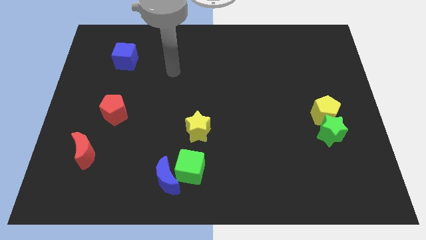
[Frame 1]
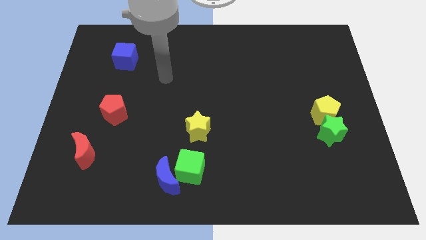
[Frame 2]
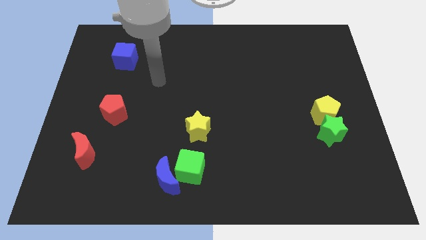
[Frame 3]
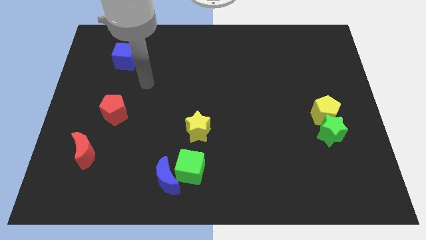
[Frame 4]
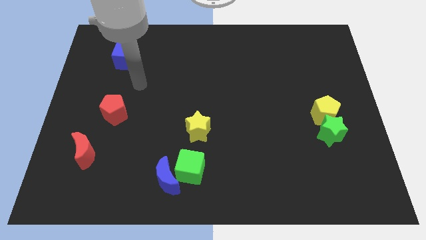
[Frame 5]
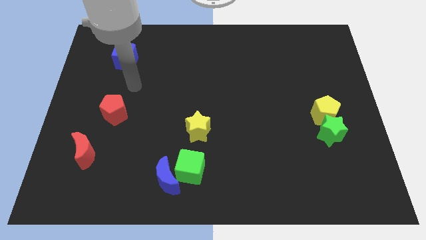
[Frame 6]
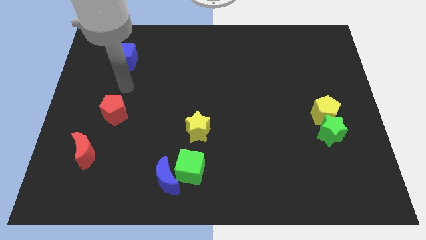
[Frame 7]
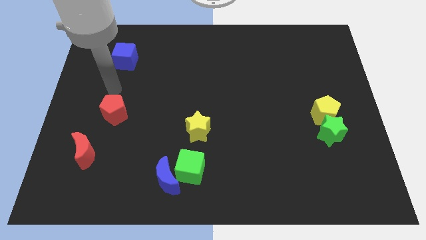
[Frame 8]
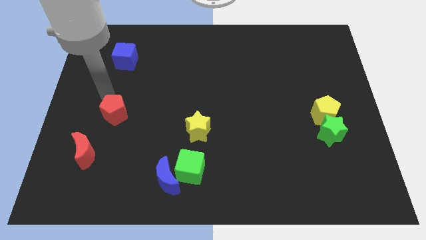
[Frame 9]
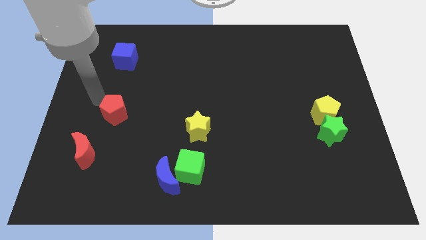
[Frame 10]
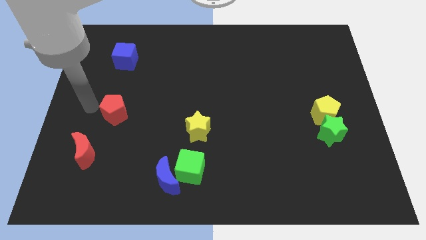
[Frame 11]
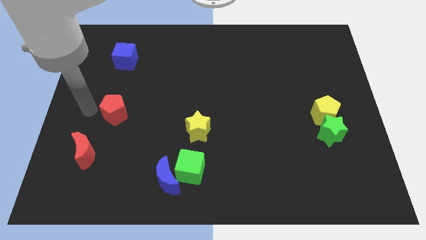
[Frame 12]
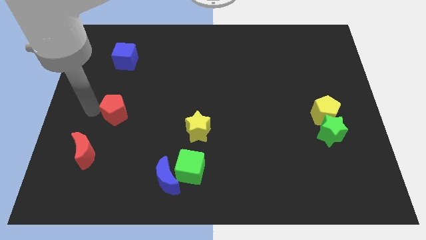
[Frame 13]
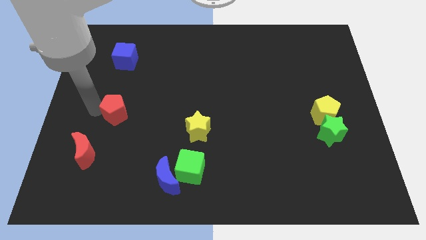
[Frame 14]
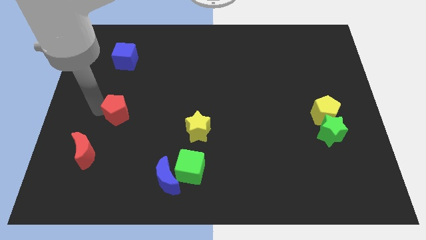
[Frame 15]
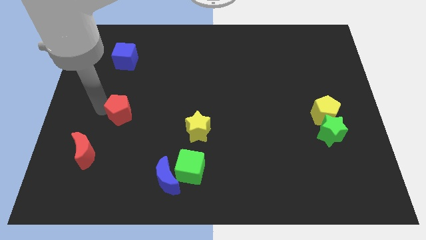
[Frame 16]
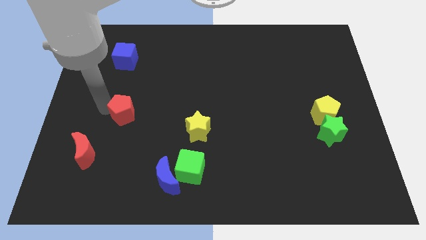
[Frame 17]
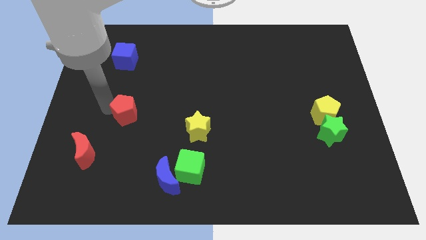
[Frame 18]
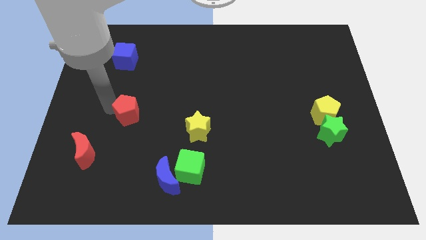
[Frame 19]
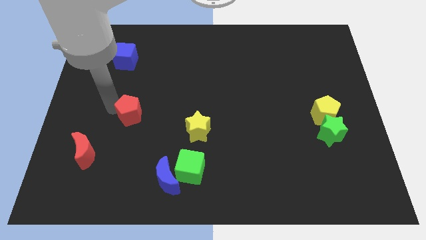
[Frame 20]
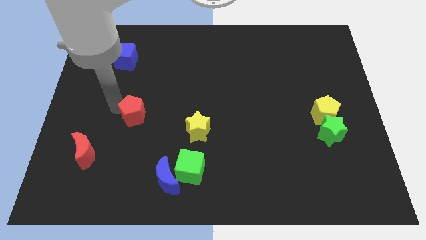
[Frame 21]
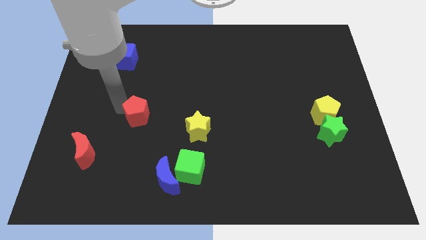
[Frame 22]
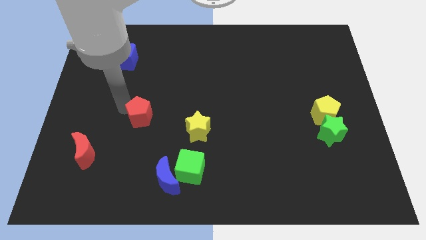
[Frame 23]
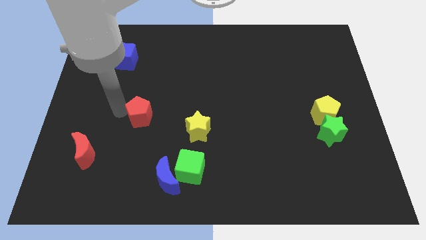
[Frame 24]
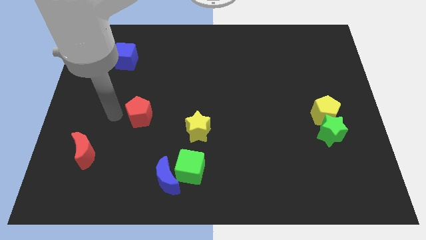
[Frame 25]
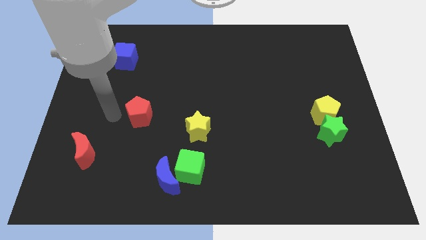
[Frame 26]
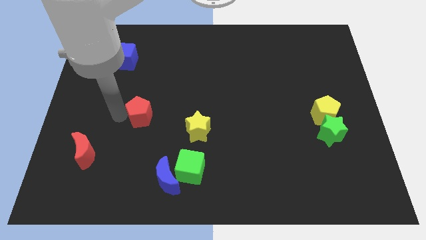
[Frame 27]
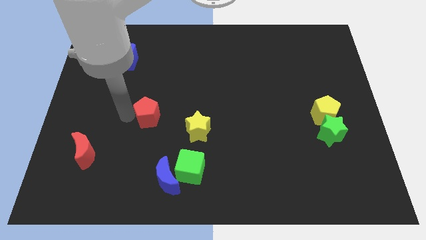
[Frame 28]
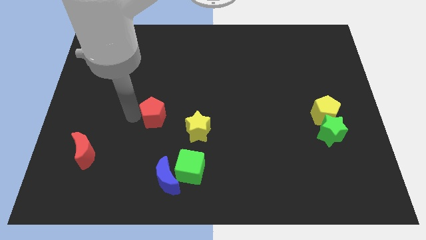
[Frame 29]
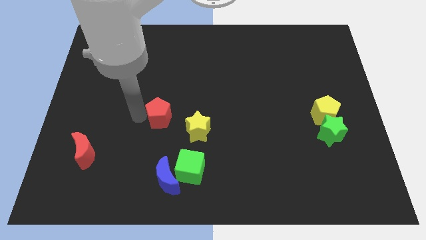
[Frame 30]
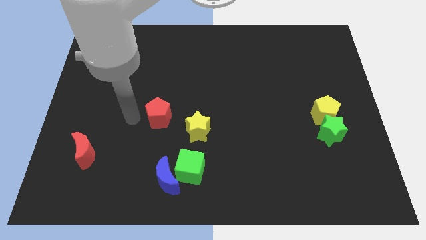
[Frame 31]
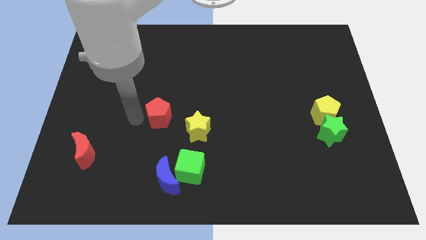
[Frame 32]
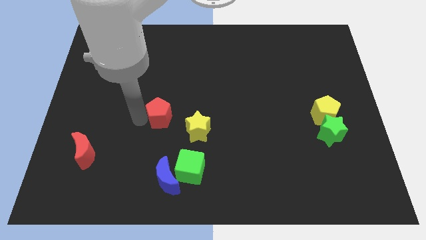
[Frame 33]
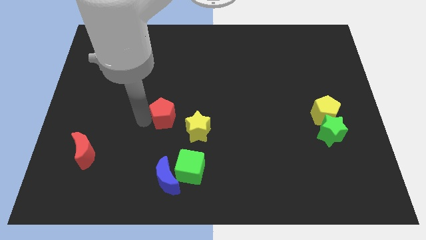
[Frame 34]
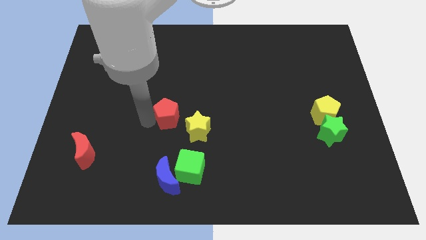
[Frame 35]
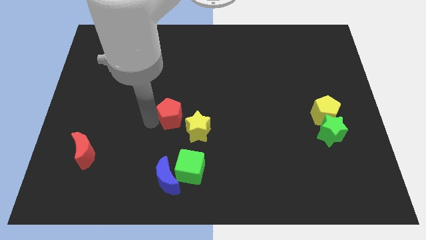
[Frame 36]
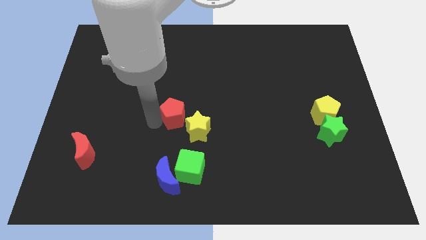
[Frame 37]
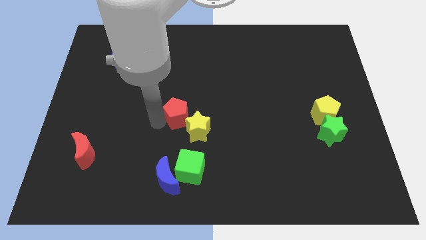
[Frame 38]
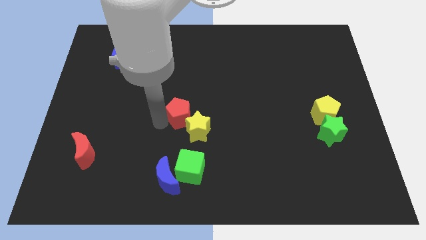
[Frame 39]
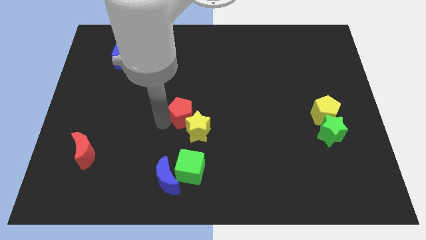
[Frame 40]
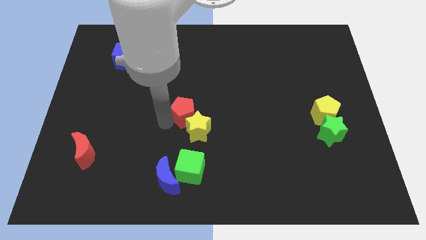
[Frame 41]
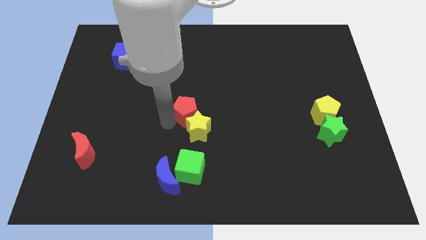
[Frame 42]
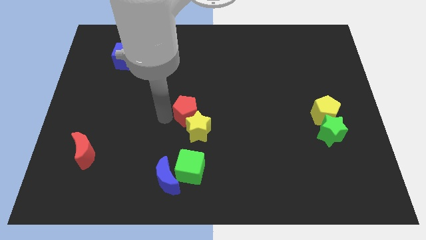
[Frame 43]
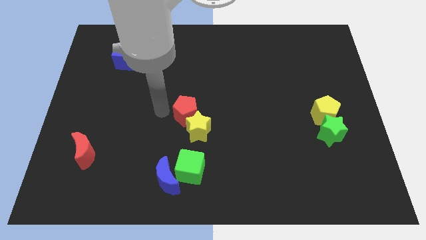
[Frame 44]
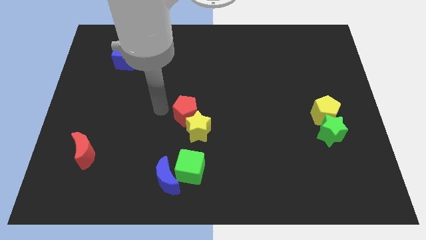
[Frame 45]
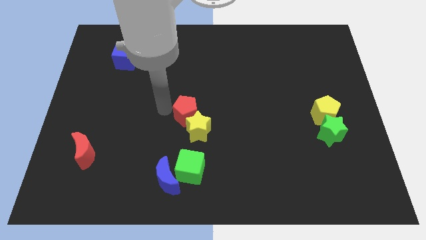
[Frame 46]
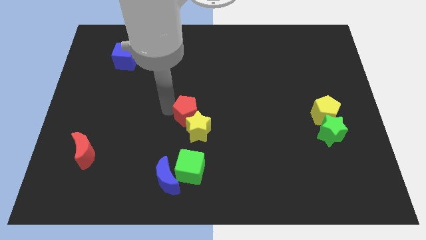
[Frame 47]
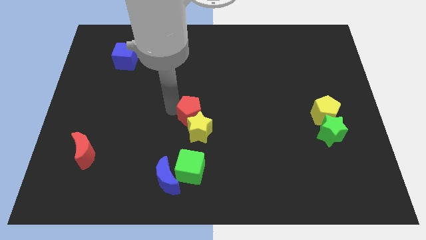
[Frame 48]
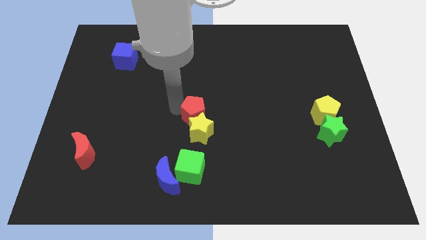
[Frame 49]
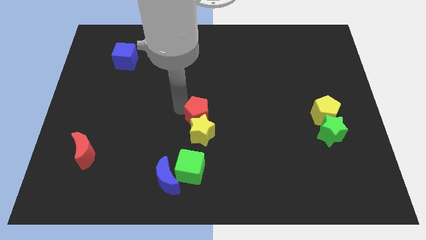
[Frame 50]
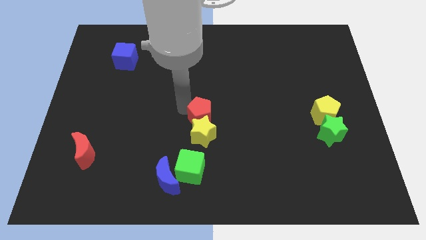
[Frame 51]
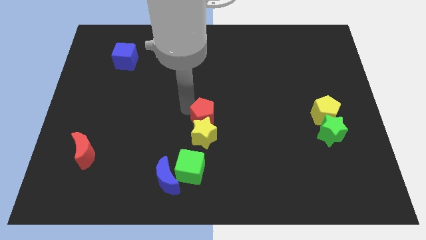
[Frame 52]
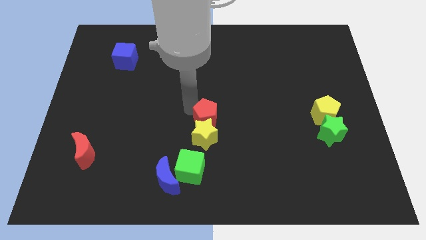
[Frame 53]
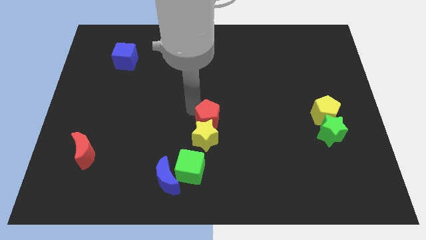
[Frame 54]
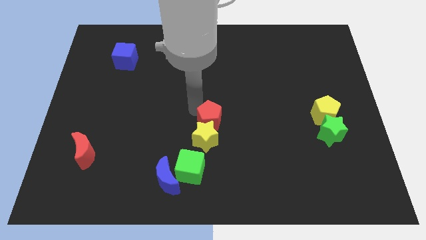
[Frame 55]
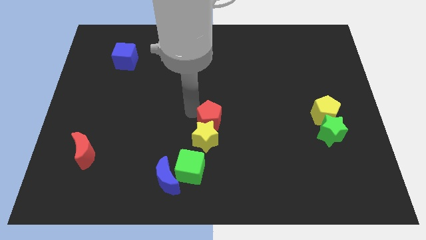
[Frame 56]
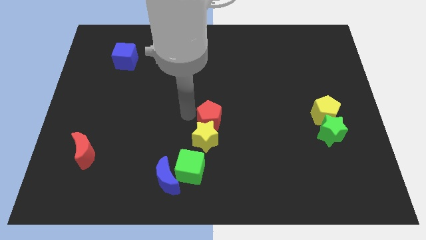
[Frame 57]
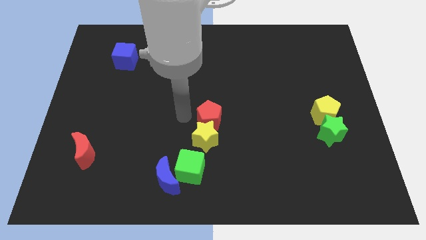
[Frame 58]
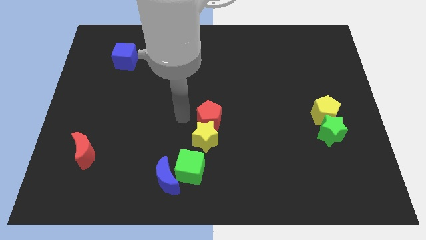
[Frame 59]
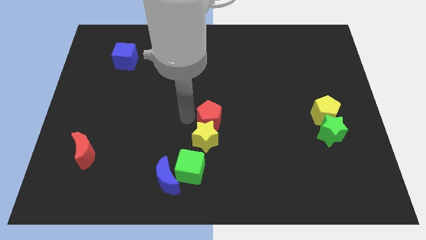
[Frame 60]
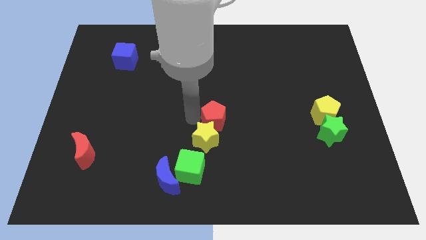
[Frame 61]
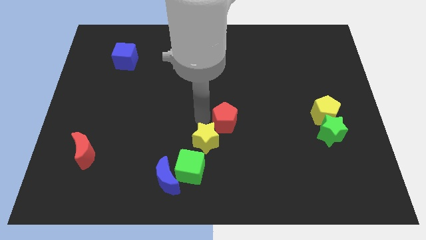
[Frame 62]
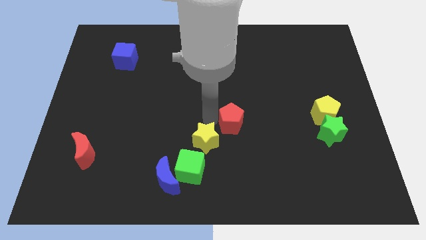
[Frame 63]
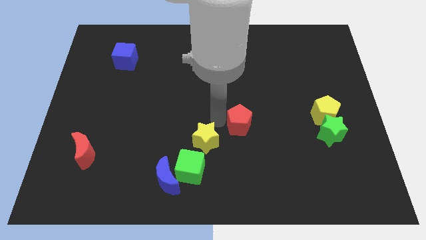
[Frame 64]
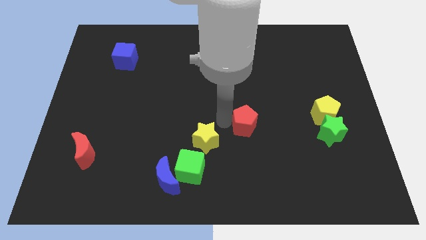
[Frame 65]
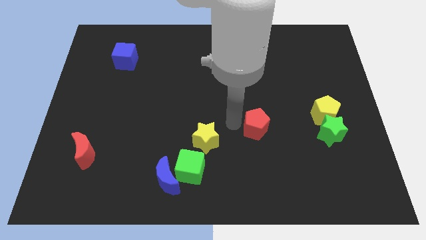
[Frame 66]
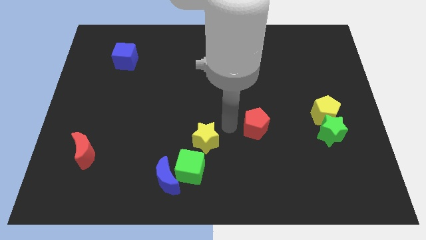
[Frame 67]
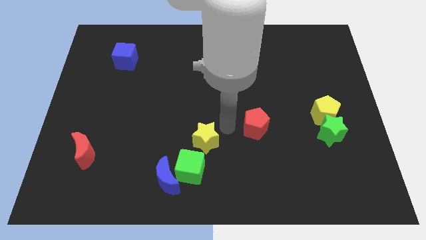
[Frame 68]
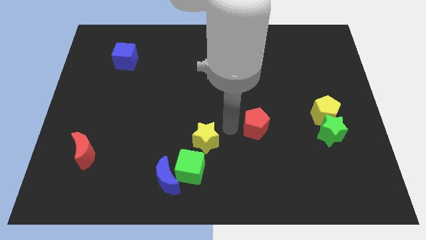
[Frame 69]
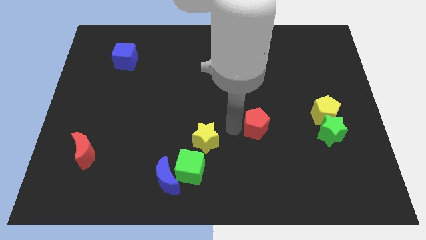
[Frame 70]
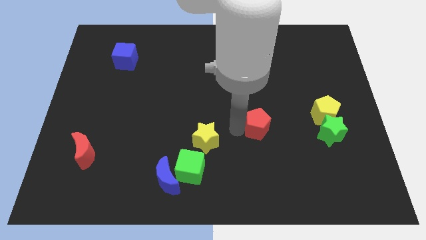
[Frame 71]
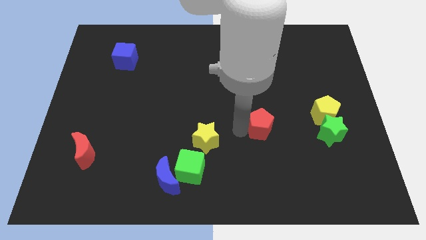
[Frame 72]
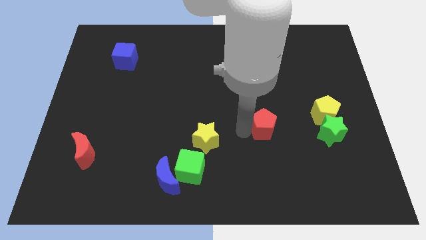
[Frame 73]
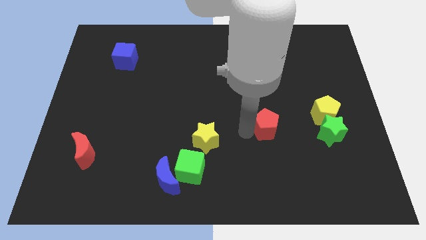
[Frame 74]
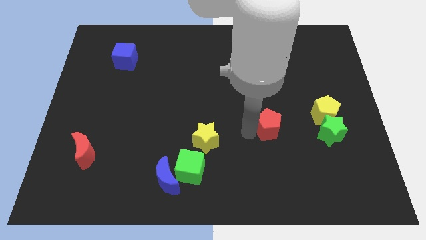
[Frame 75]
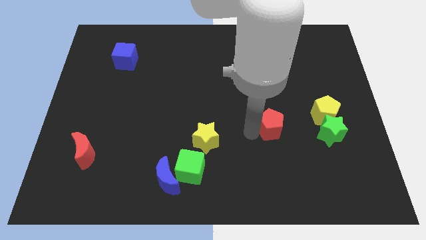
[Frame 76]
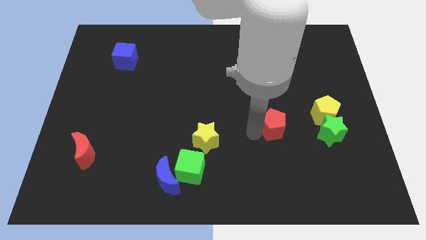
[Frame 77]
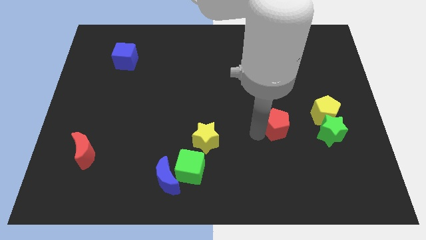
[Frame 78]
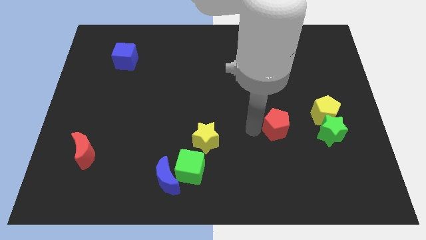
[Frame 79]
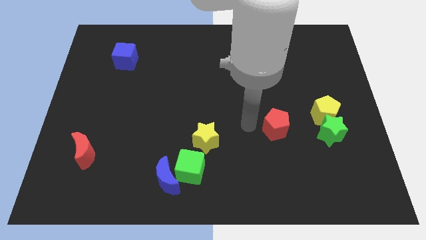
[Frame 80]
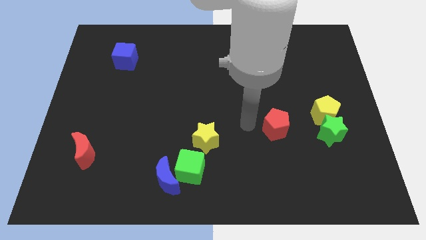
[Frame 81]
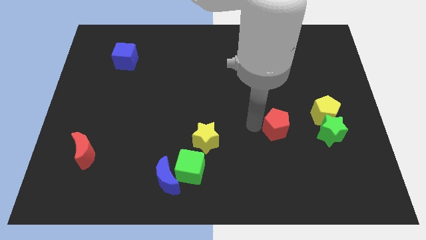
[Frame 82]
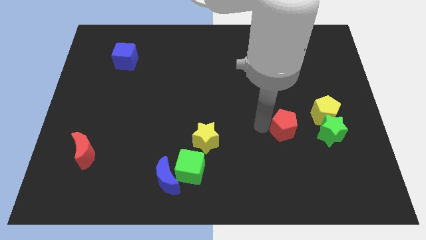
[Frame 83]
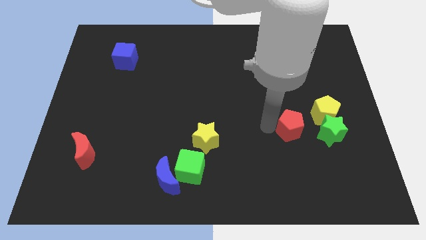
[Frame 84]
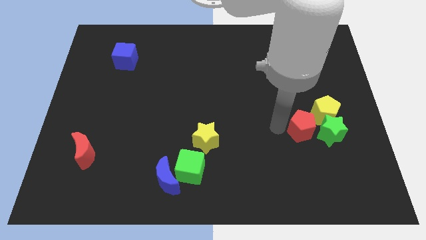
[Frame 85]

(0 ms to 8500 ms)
put the red pentagon next to the green star
